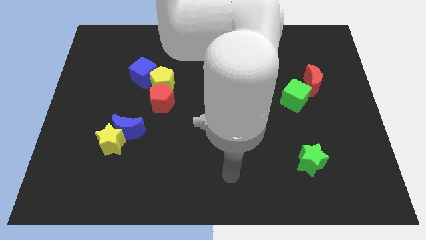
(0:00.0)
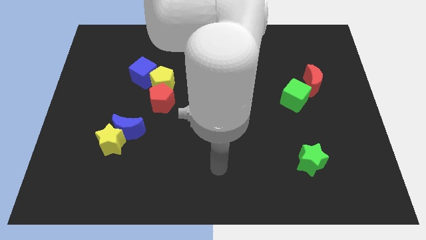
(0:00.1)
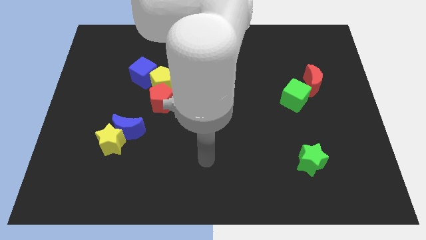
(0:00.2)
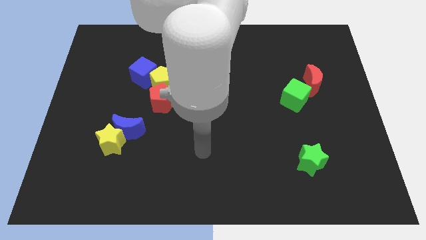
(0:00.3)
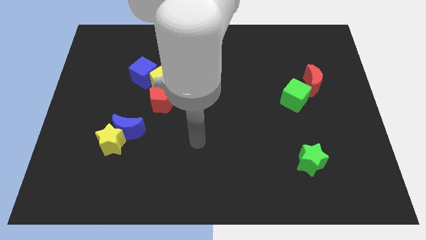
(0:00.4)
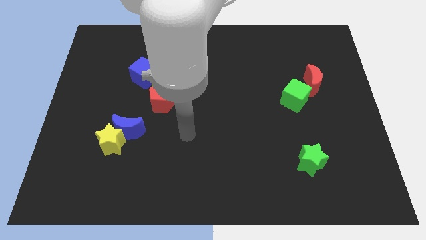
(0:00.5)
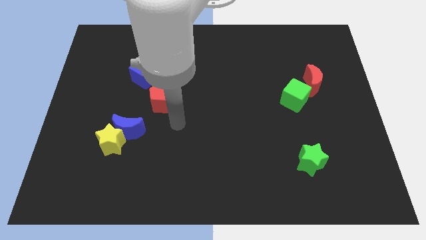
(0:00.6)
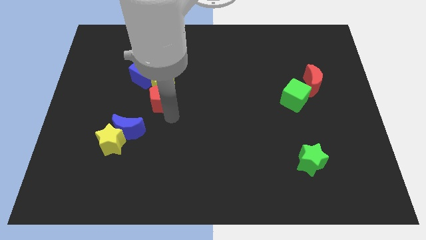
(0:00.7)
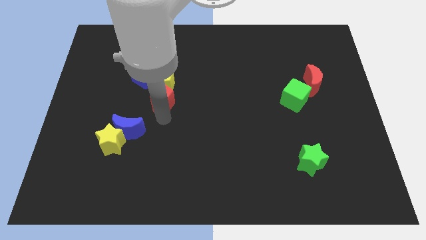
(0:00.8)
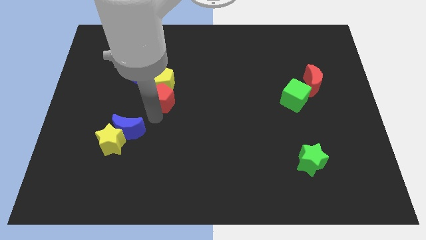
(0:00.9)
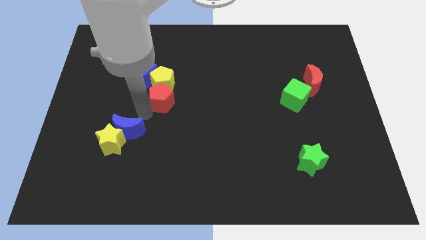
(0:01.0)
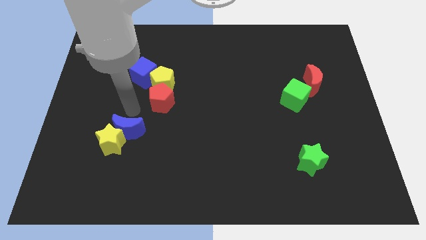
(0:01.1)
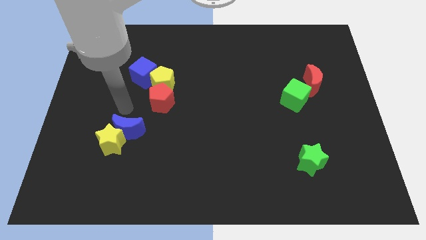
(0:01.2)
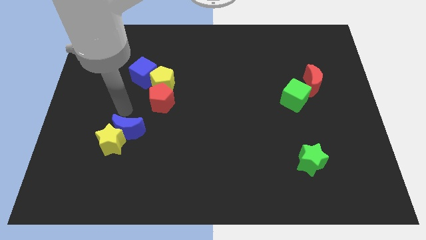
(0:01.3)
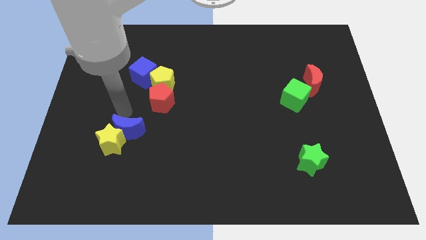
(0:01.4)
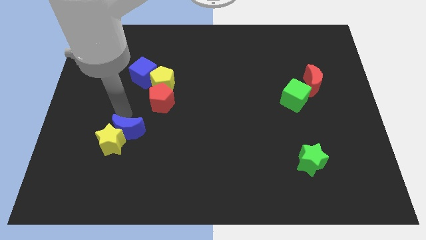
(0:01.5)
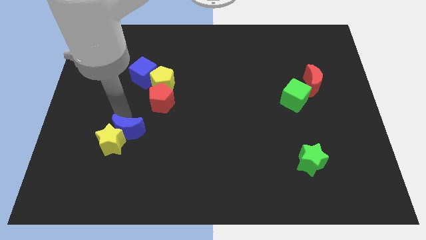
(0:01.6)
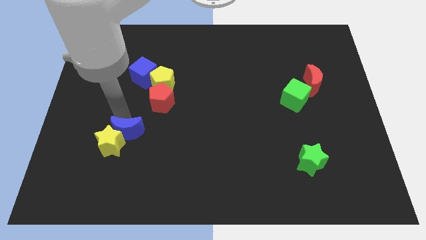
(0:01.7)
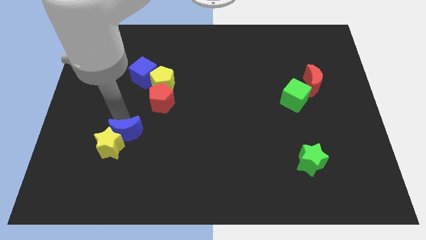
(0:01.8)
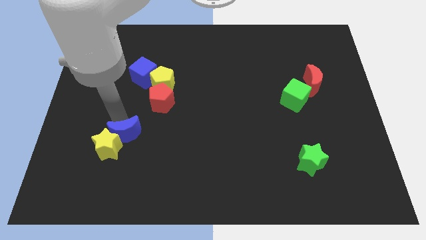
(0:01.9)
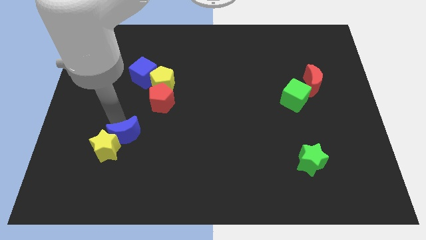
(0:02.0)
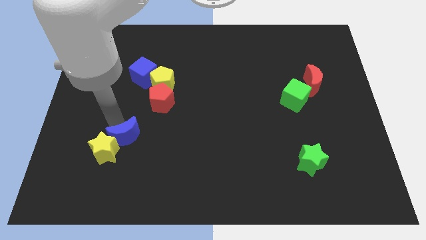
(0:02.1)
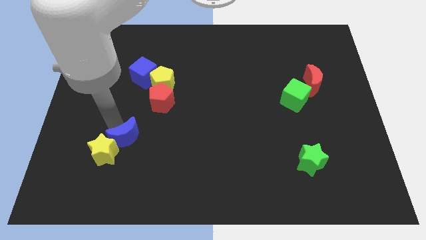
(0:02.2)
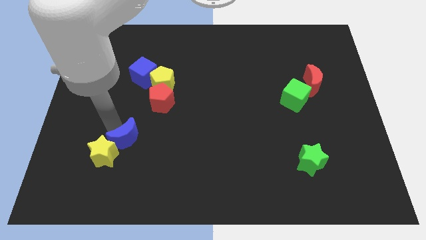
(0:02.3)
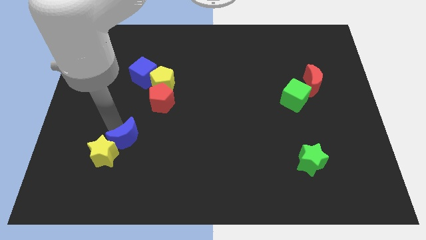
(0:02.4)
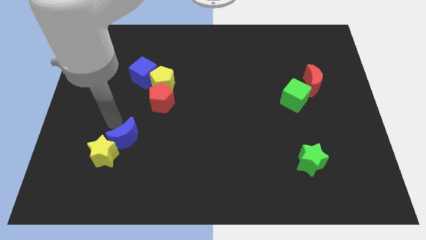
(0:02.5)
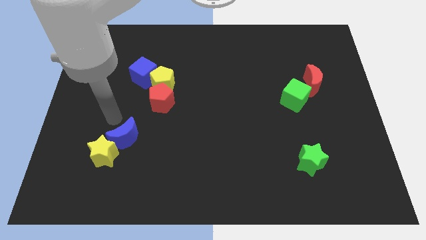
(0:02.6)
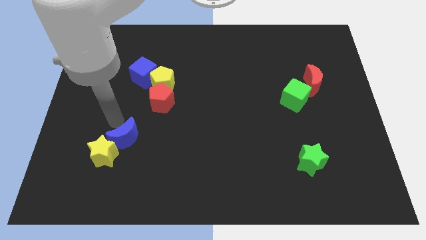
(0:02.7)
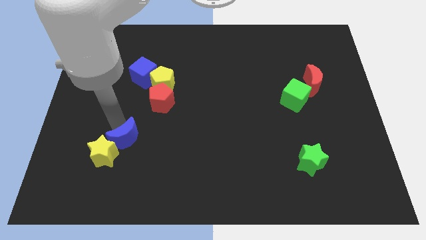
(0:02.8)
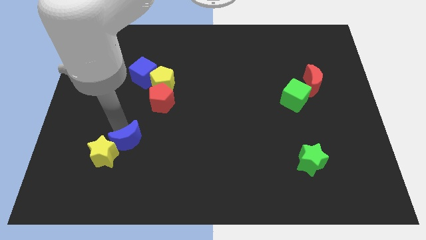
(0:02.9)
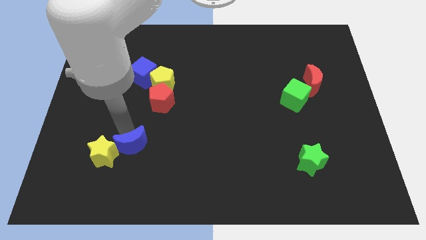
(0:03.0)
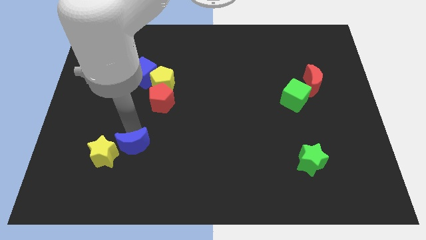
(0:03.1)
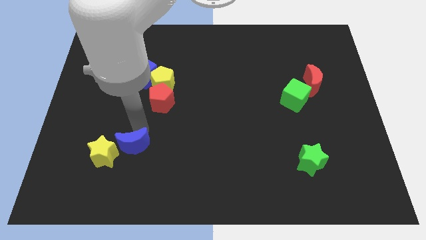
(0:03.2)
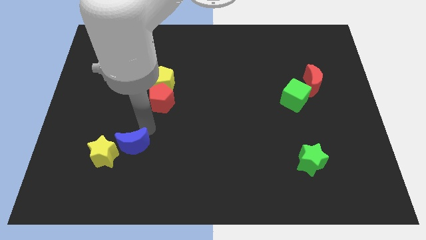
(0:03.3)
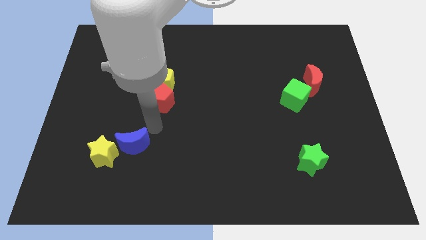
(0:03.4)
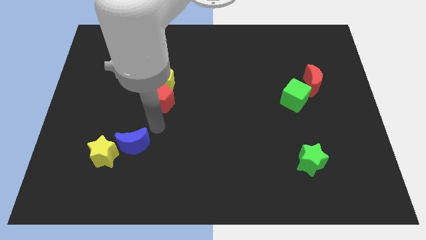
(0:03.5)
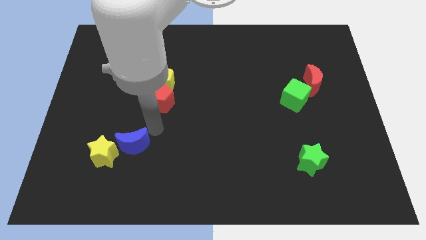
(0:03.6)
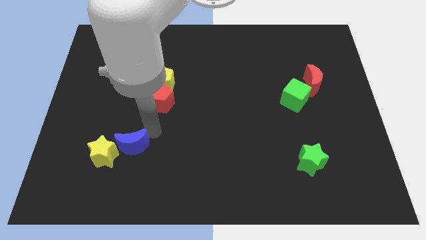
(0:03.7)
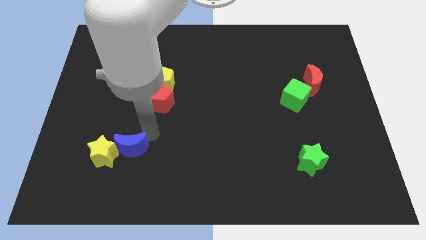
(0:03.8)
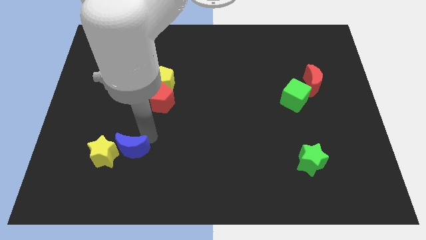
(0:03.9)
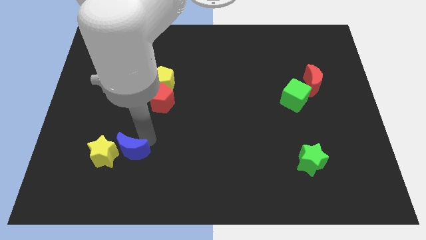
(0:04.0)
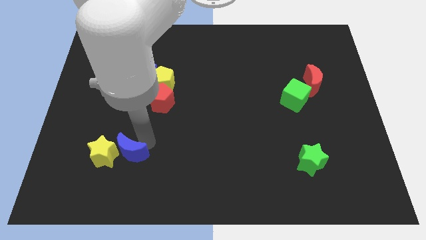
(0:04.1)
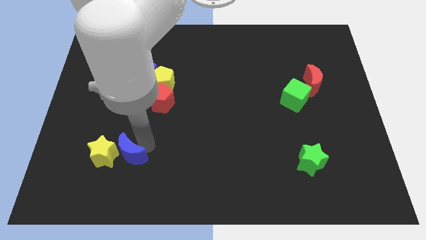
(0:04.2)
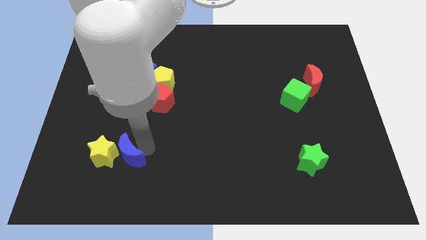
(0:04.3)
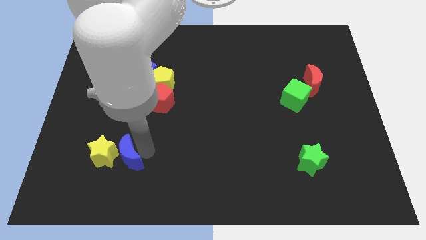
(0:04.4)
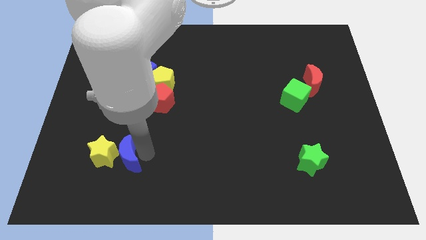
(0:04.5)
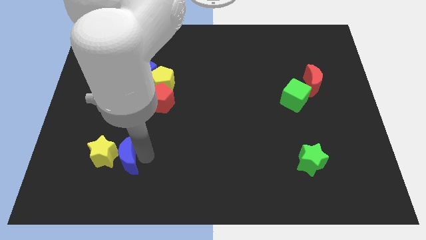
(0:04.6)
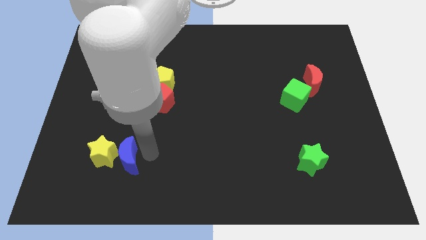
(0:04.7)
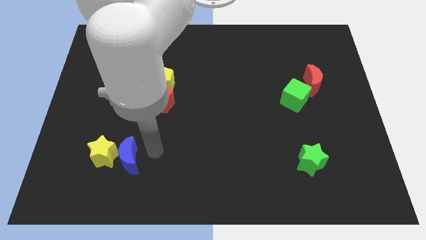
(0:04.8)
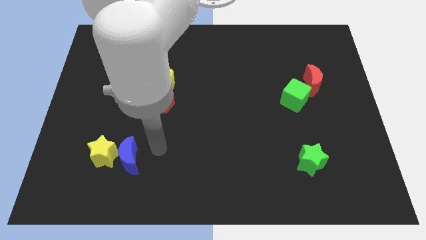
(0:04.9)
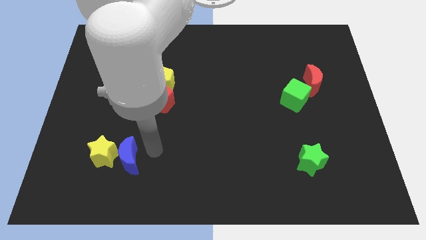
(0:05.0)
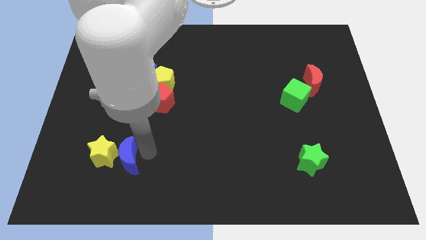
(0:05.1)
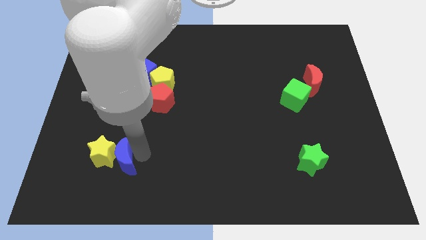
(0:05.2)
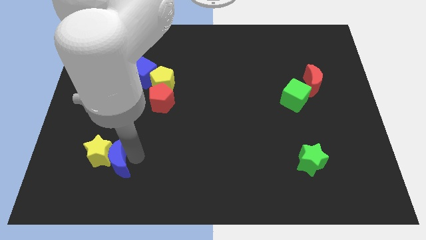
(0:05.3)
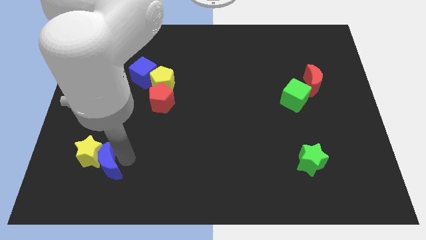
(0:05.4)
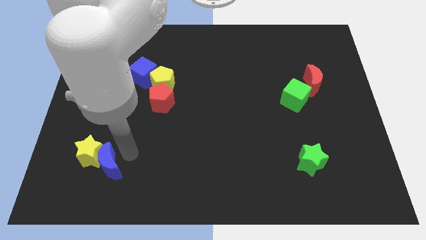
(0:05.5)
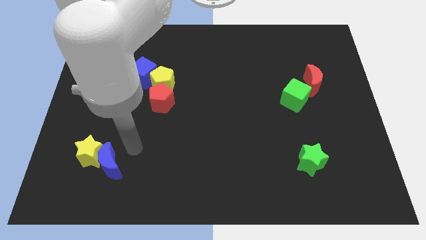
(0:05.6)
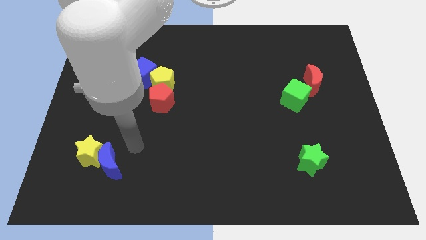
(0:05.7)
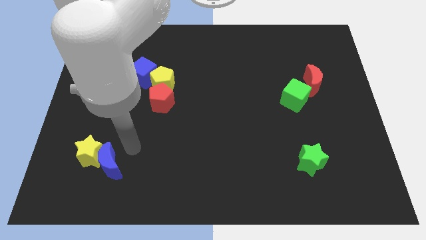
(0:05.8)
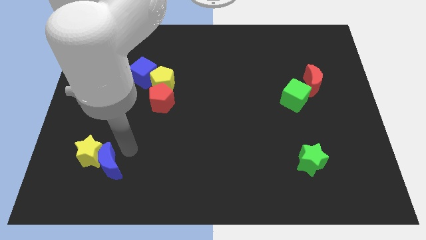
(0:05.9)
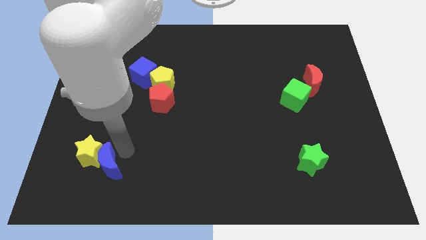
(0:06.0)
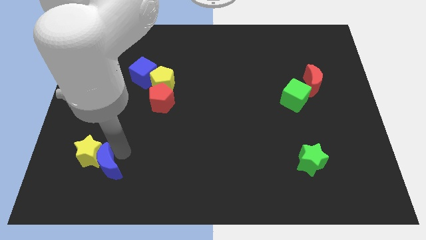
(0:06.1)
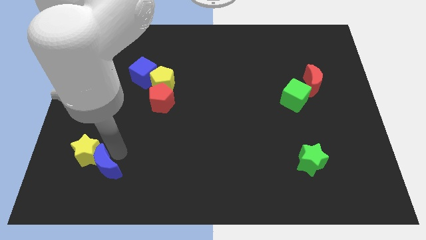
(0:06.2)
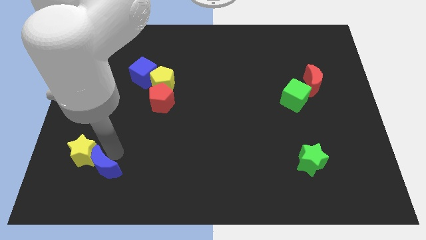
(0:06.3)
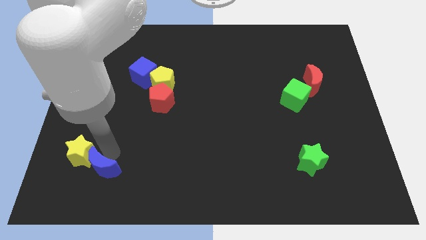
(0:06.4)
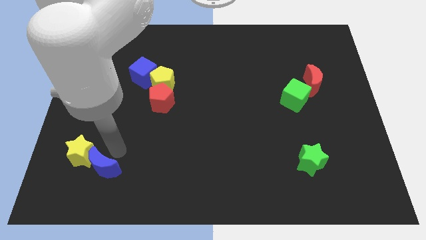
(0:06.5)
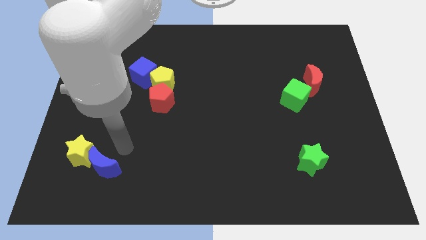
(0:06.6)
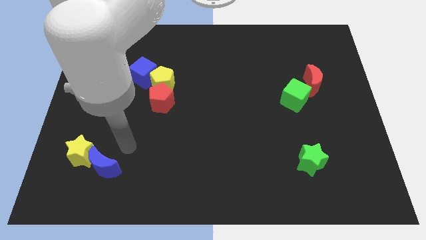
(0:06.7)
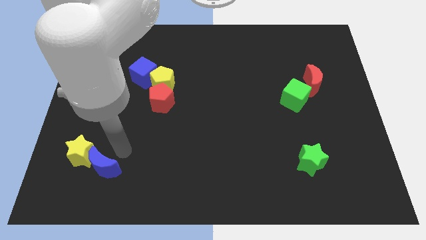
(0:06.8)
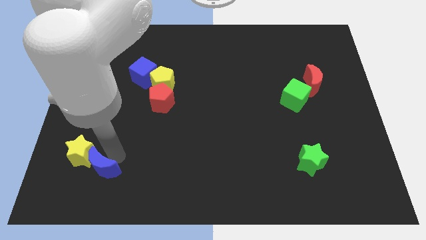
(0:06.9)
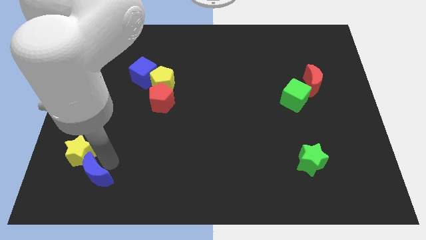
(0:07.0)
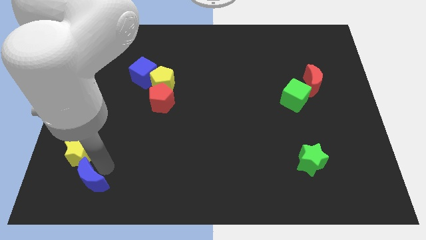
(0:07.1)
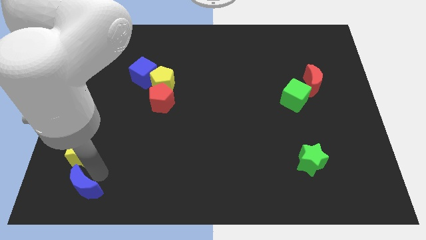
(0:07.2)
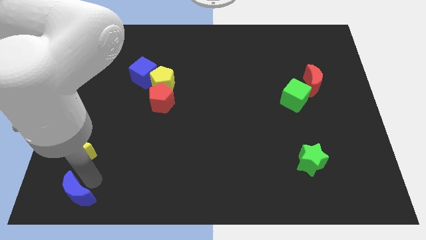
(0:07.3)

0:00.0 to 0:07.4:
move the blue moon to the bottom left corner
